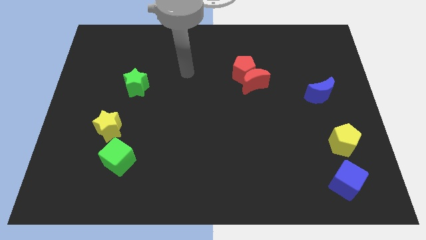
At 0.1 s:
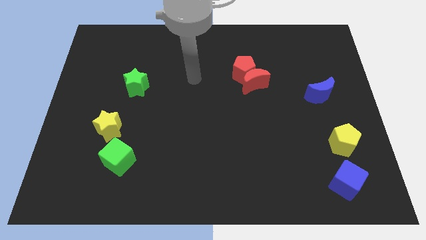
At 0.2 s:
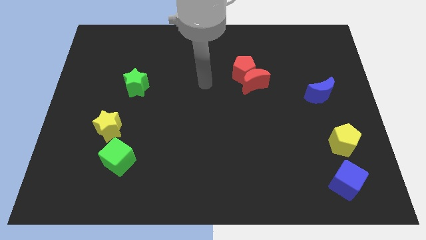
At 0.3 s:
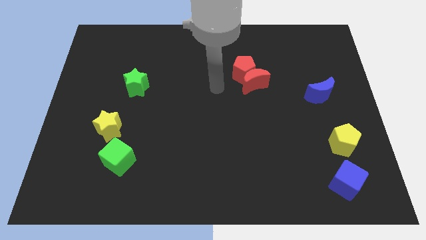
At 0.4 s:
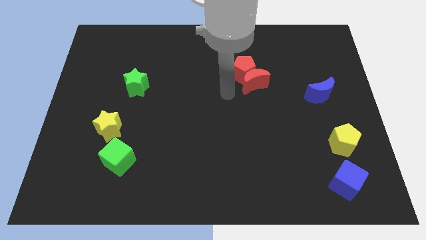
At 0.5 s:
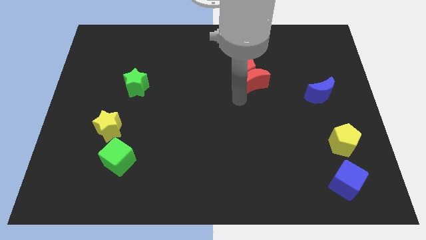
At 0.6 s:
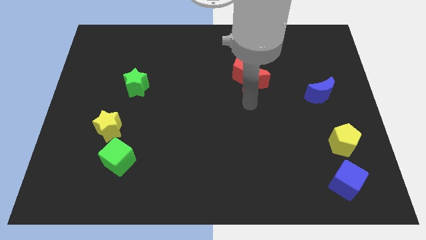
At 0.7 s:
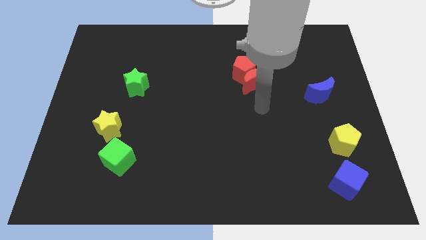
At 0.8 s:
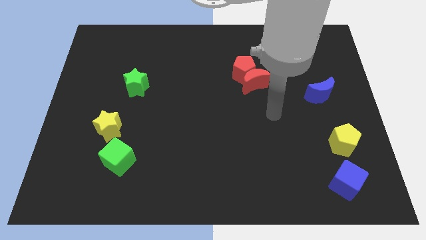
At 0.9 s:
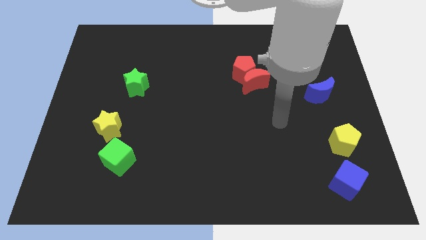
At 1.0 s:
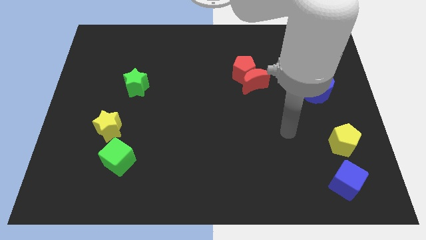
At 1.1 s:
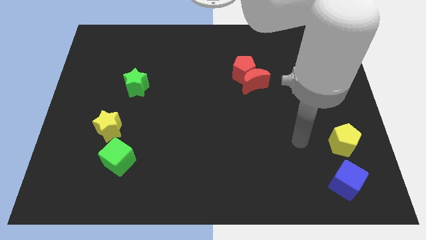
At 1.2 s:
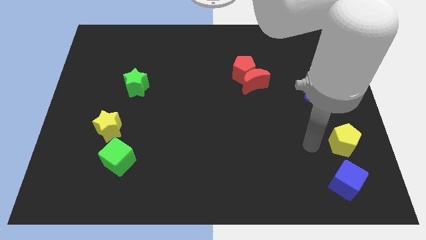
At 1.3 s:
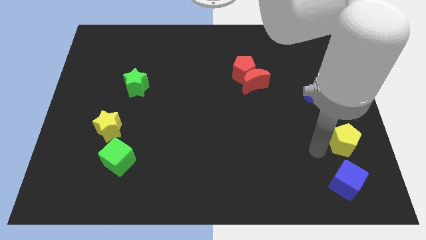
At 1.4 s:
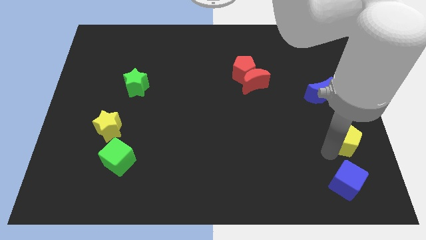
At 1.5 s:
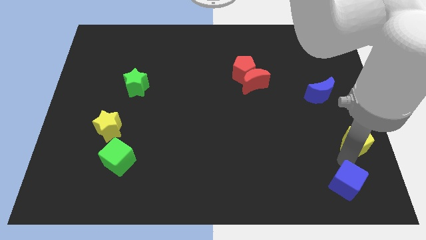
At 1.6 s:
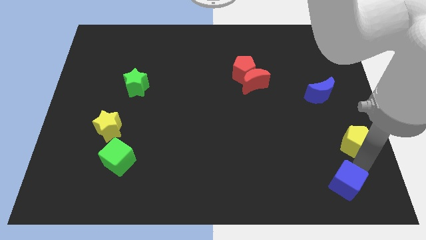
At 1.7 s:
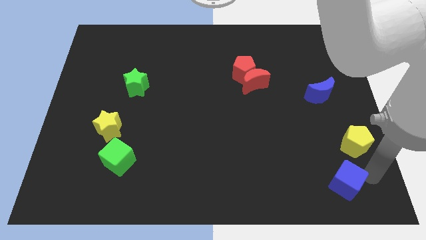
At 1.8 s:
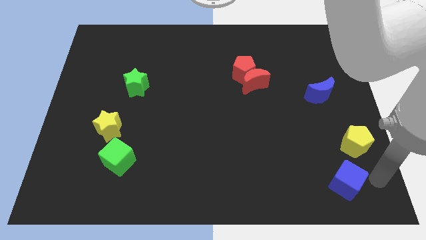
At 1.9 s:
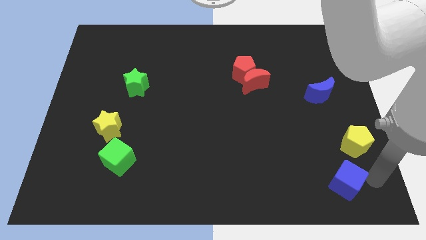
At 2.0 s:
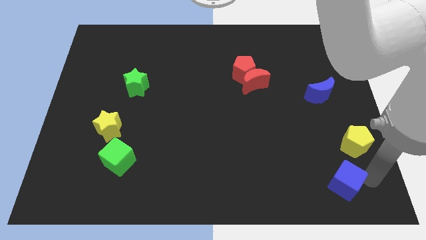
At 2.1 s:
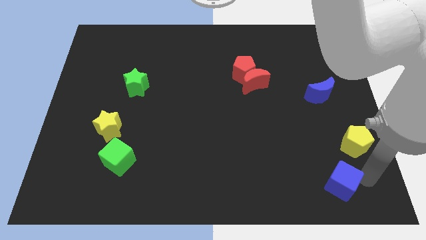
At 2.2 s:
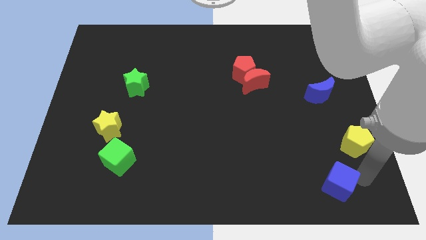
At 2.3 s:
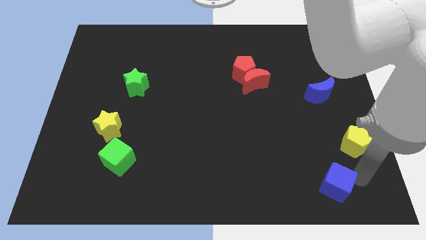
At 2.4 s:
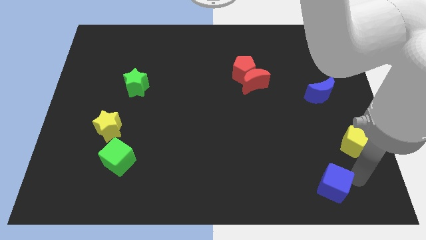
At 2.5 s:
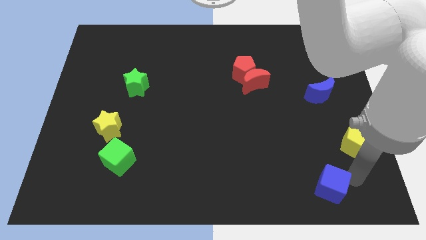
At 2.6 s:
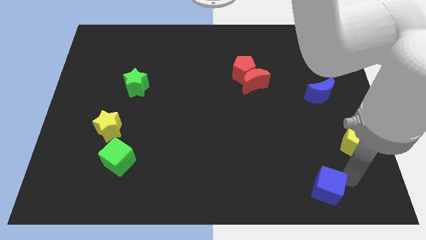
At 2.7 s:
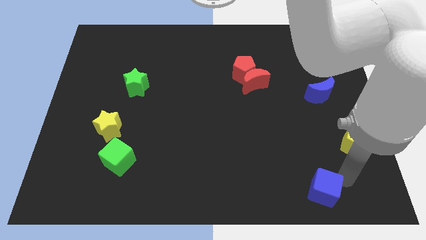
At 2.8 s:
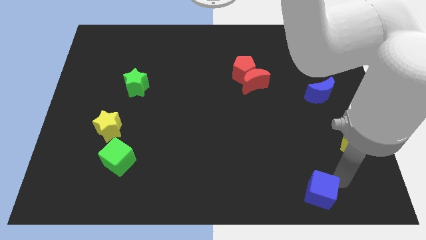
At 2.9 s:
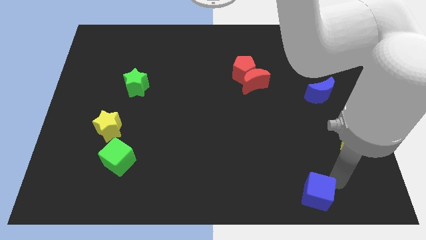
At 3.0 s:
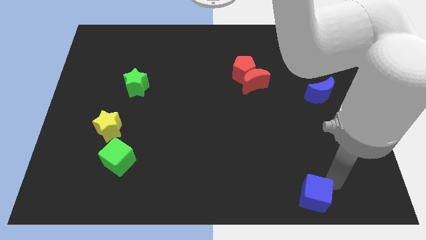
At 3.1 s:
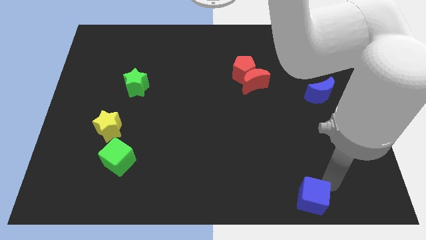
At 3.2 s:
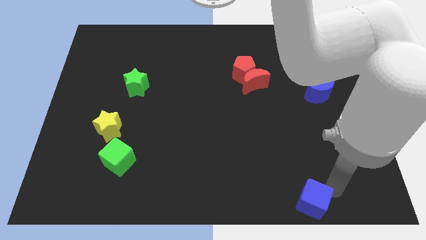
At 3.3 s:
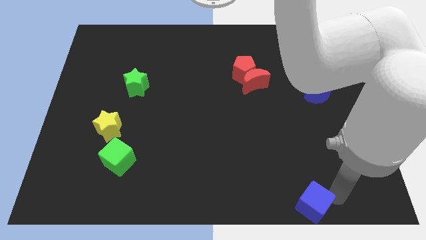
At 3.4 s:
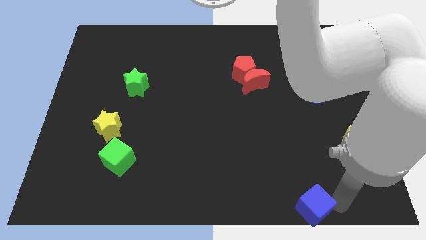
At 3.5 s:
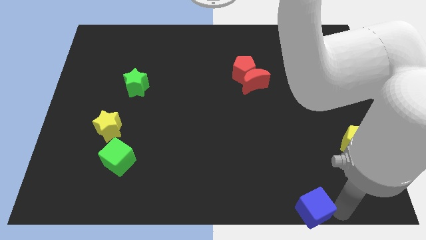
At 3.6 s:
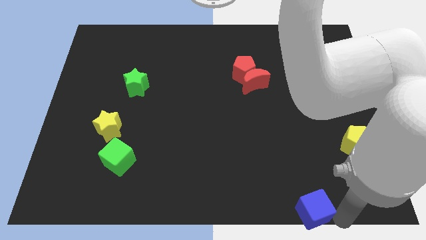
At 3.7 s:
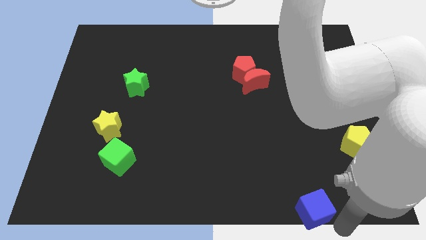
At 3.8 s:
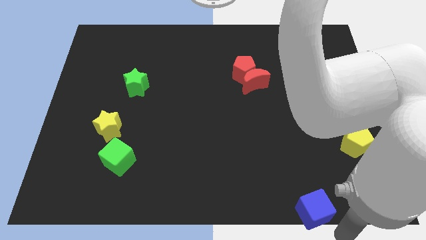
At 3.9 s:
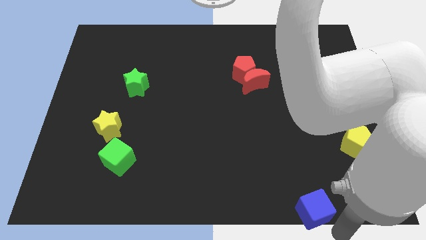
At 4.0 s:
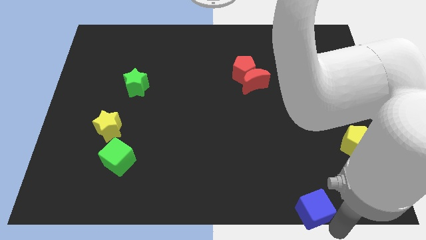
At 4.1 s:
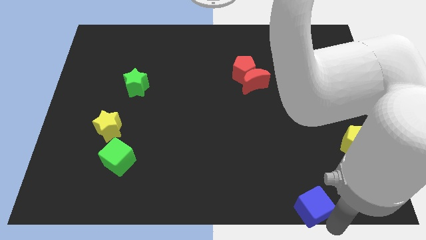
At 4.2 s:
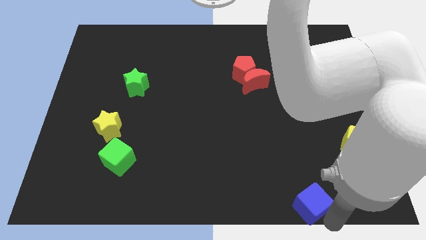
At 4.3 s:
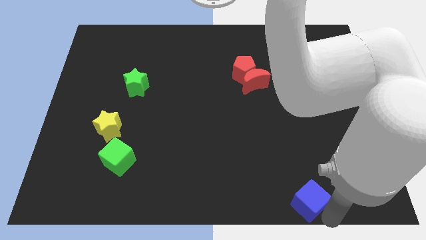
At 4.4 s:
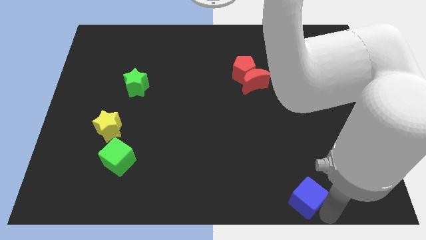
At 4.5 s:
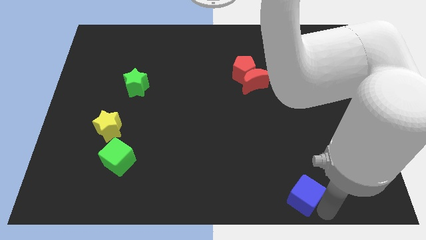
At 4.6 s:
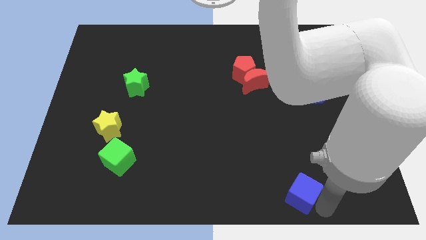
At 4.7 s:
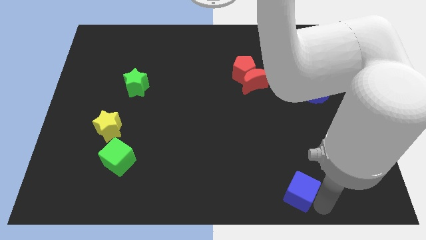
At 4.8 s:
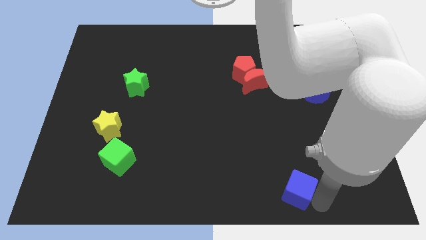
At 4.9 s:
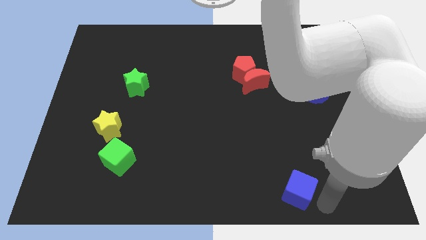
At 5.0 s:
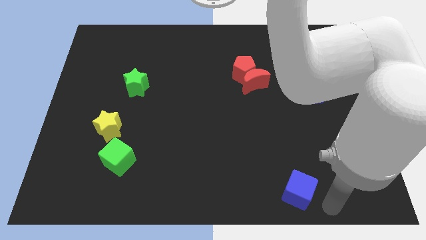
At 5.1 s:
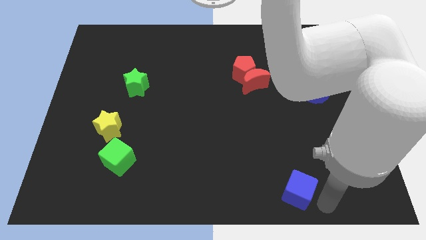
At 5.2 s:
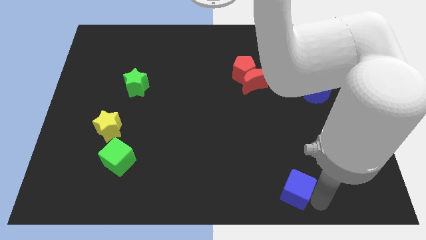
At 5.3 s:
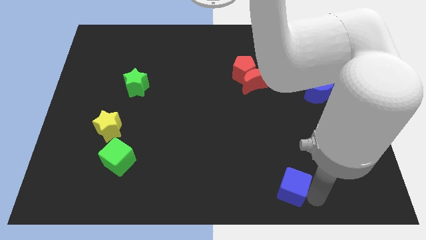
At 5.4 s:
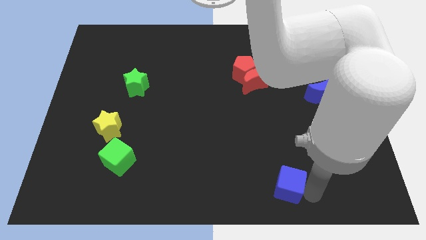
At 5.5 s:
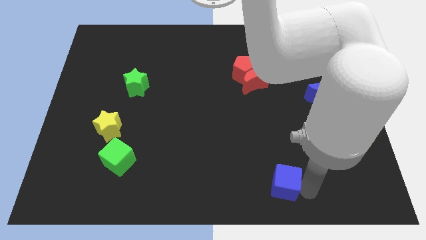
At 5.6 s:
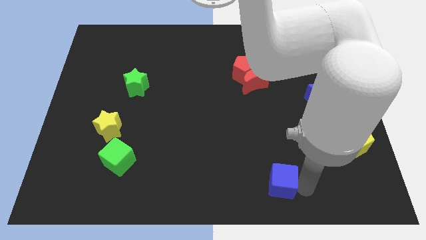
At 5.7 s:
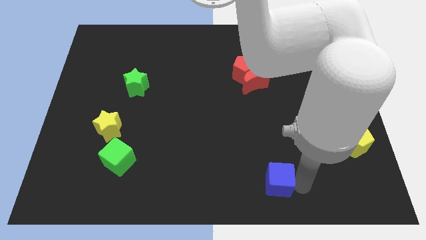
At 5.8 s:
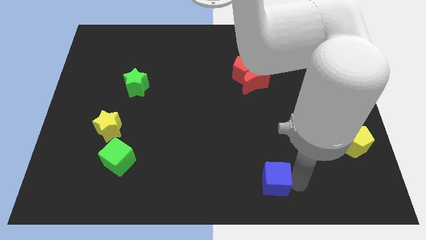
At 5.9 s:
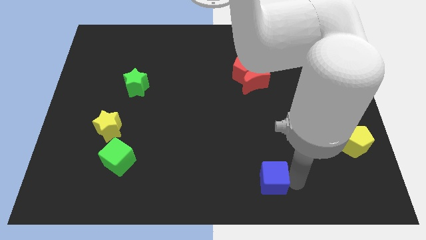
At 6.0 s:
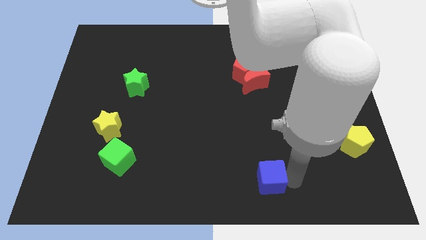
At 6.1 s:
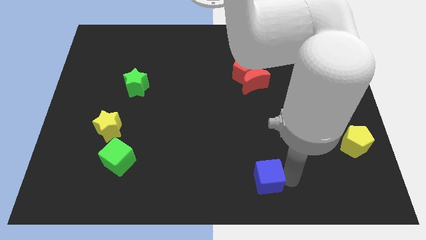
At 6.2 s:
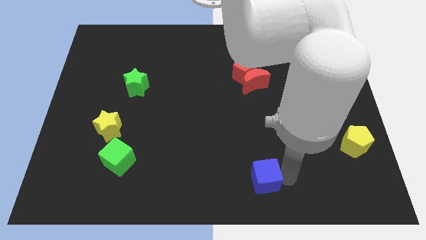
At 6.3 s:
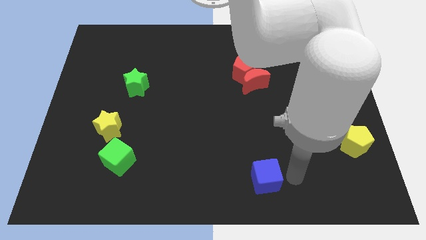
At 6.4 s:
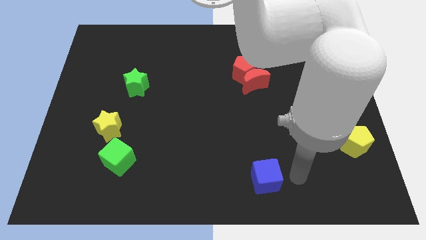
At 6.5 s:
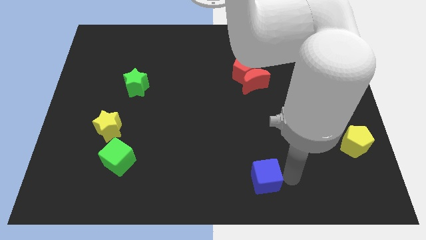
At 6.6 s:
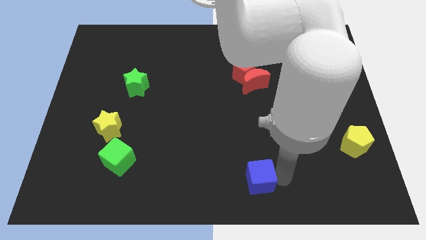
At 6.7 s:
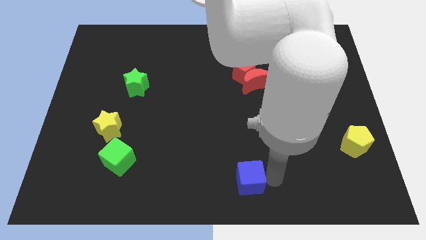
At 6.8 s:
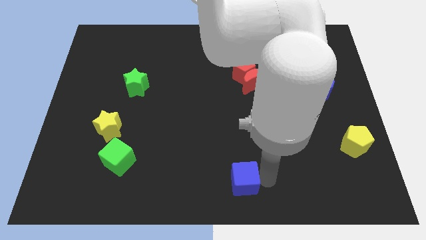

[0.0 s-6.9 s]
slide the blue cube left

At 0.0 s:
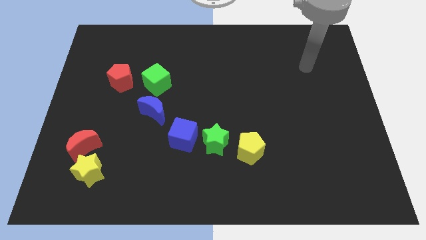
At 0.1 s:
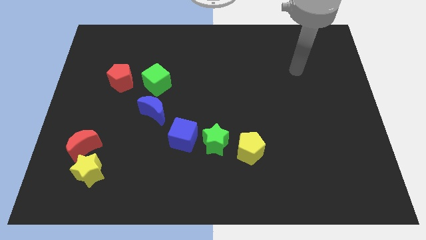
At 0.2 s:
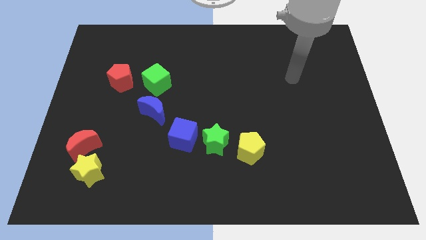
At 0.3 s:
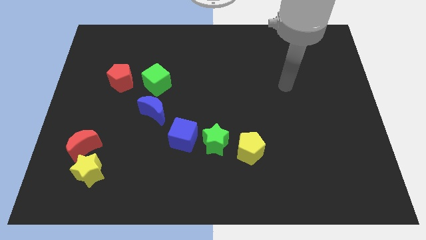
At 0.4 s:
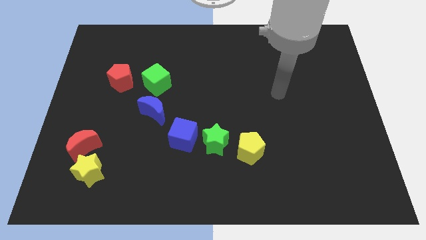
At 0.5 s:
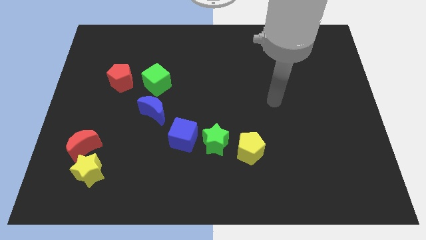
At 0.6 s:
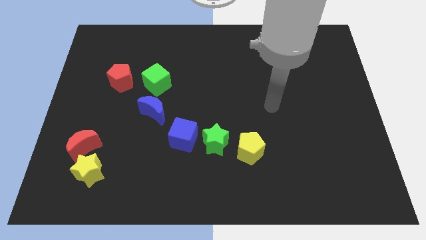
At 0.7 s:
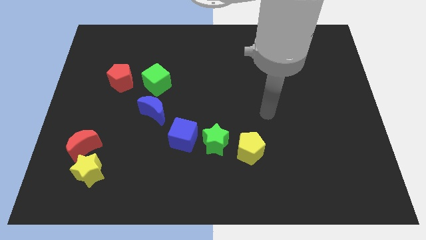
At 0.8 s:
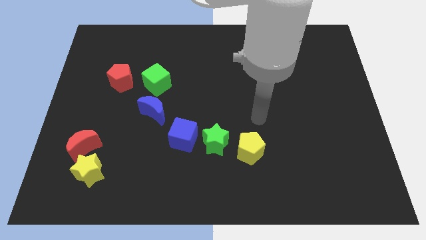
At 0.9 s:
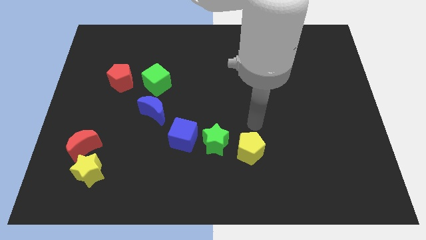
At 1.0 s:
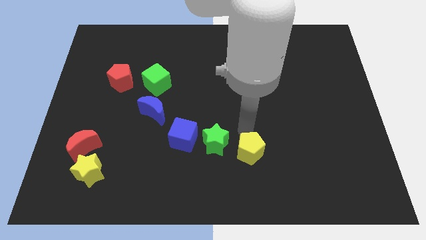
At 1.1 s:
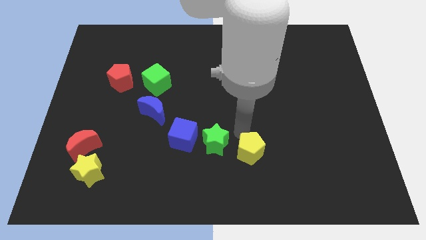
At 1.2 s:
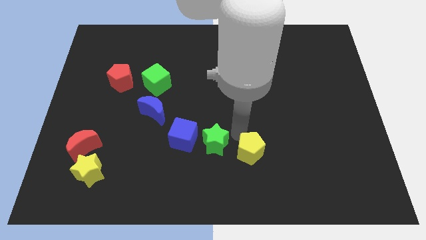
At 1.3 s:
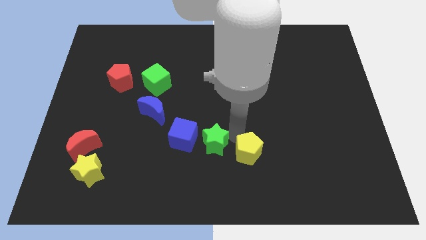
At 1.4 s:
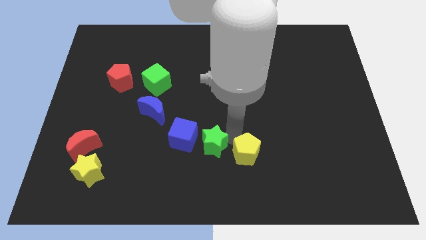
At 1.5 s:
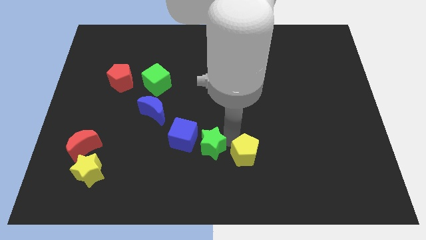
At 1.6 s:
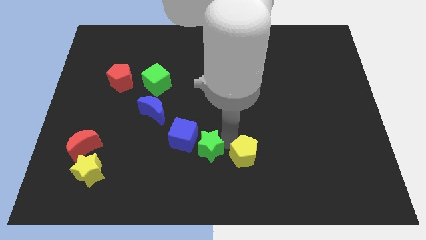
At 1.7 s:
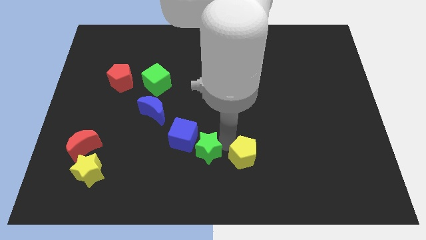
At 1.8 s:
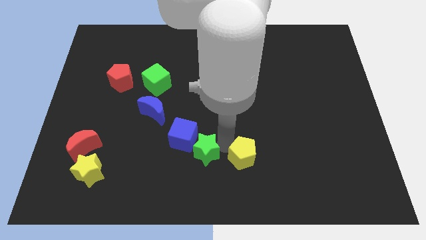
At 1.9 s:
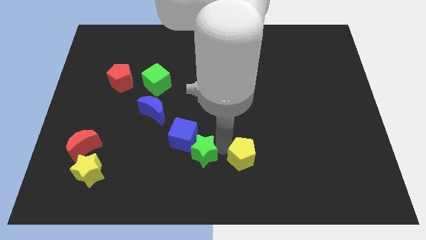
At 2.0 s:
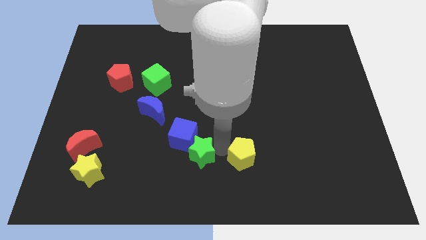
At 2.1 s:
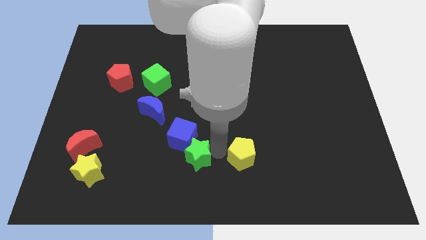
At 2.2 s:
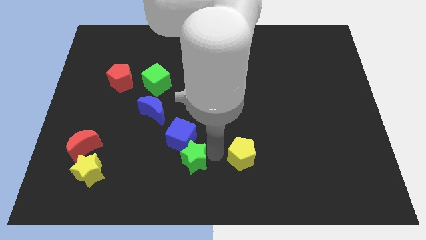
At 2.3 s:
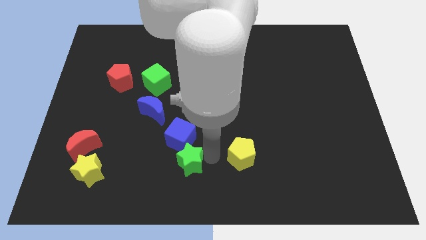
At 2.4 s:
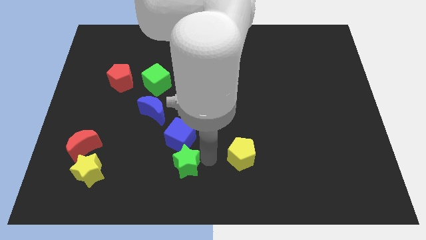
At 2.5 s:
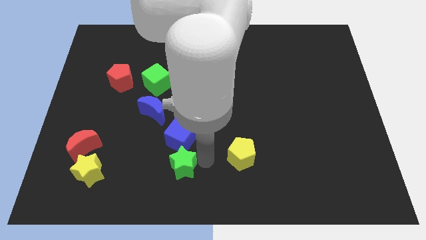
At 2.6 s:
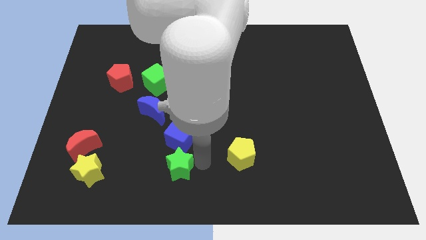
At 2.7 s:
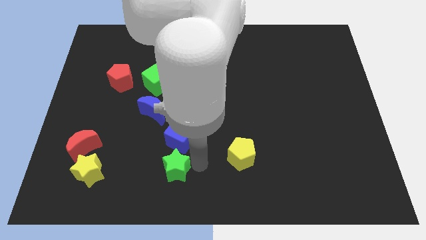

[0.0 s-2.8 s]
slightly move the green star to the left
